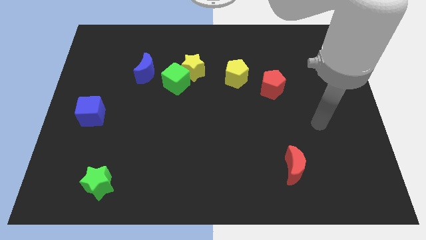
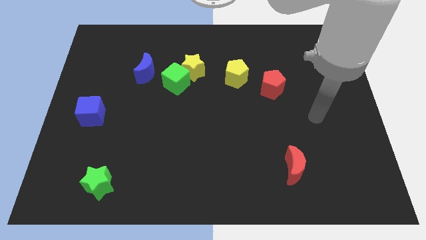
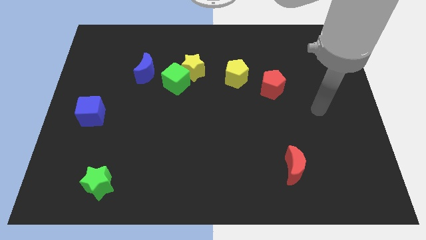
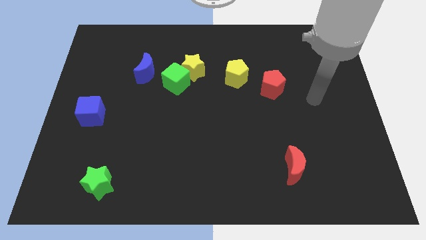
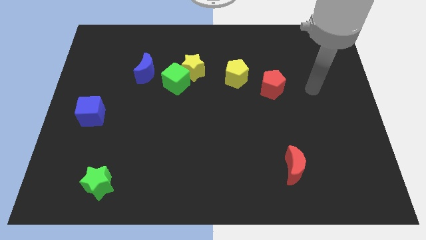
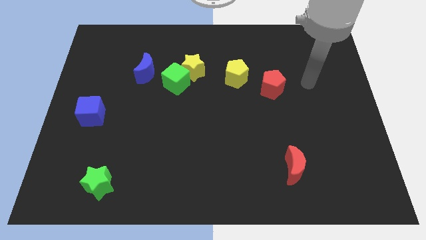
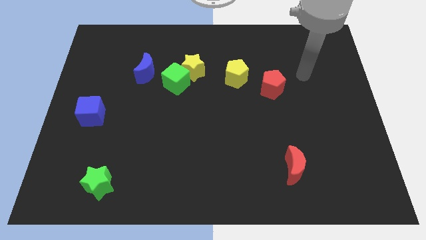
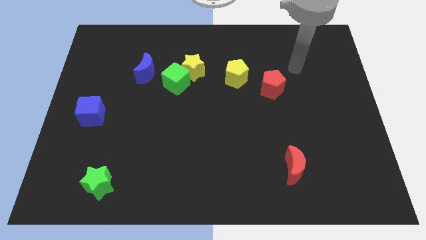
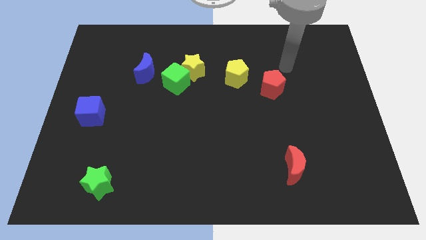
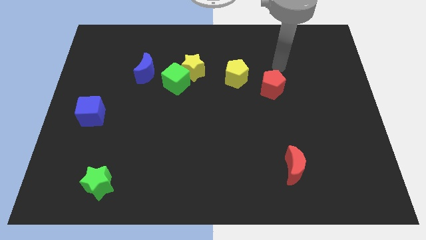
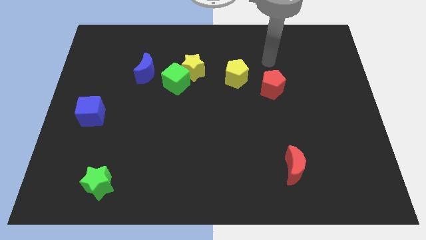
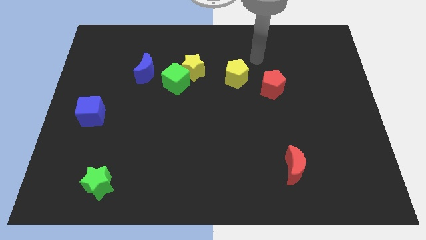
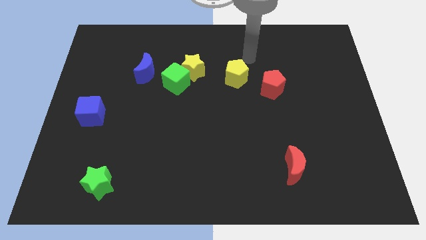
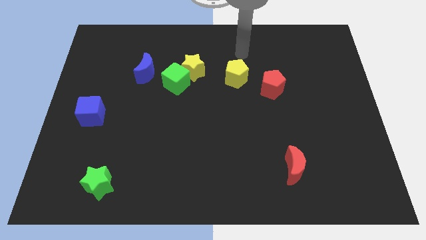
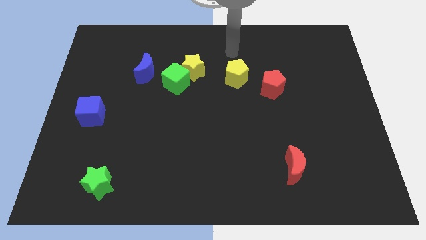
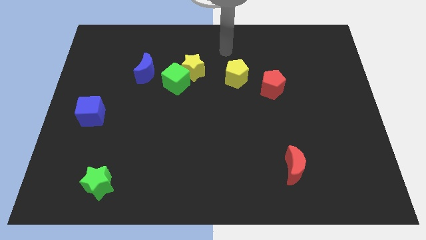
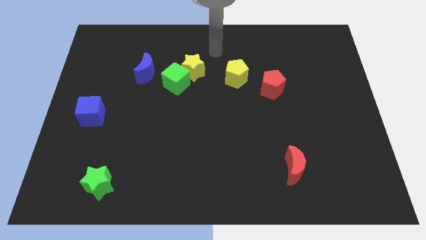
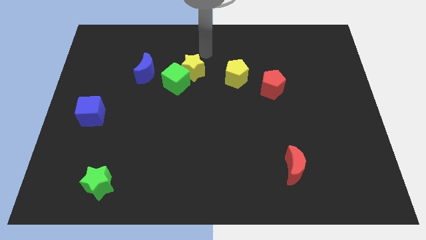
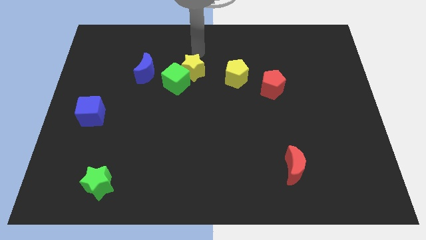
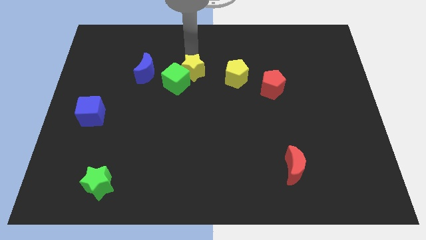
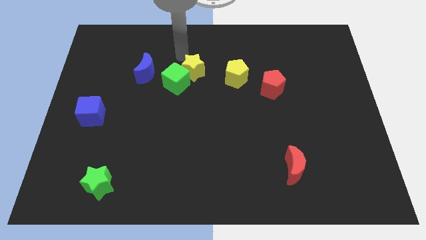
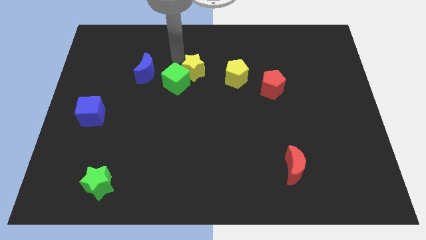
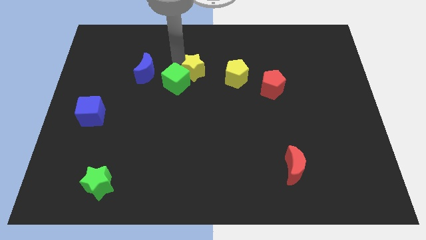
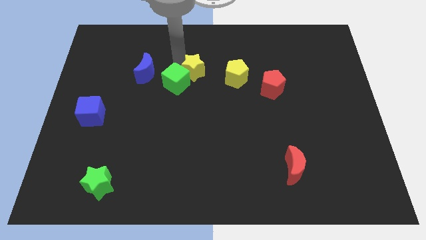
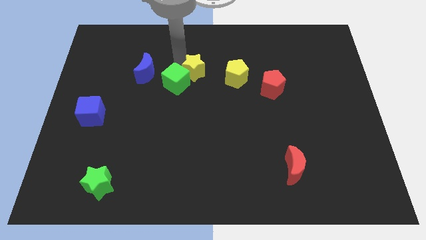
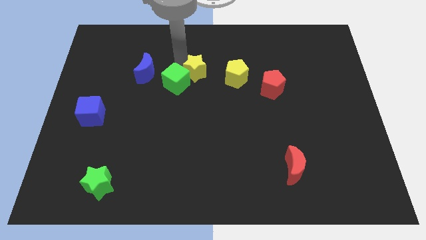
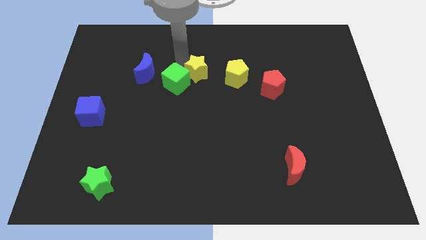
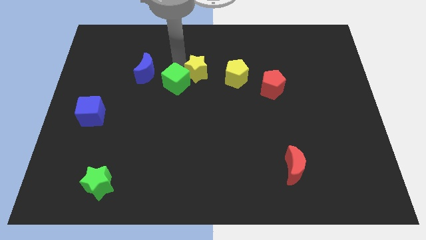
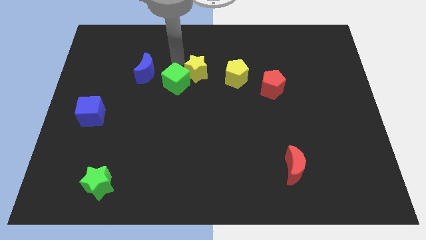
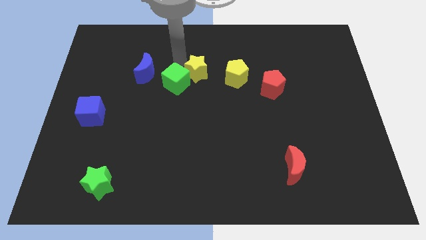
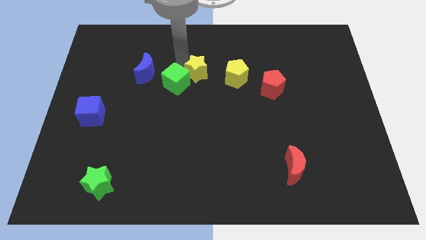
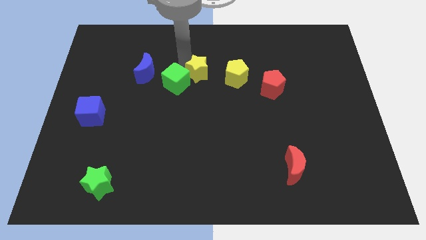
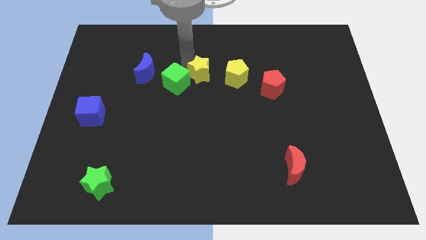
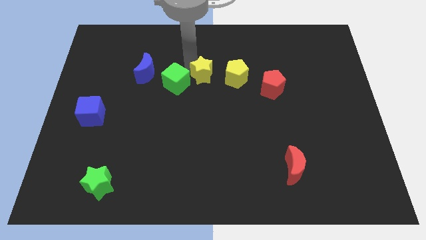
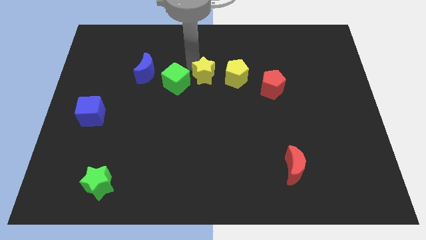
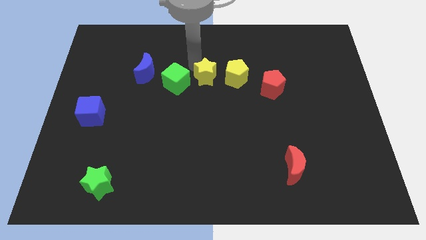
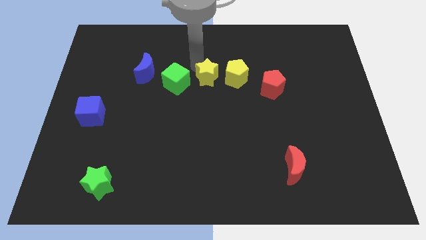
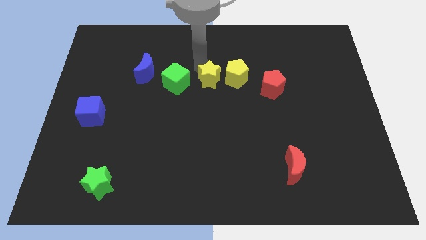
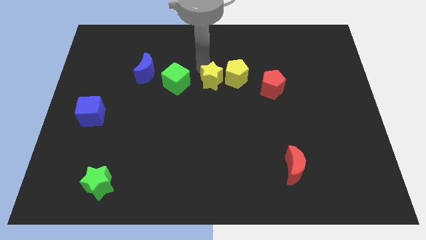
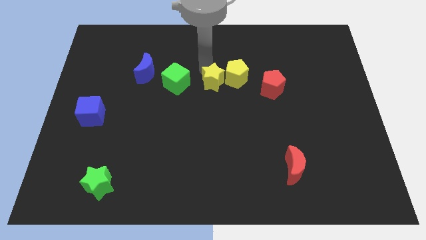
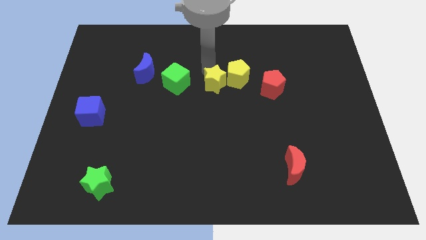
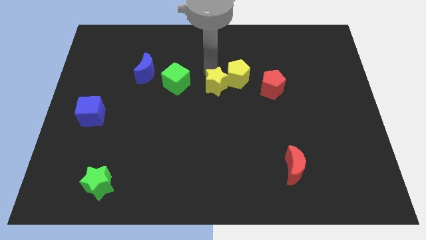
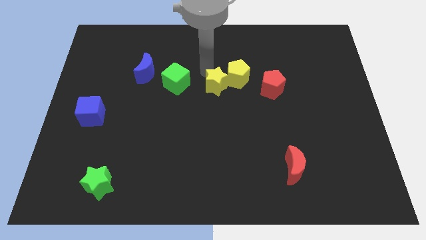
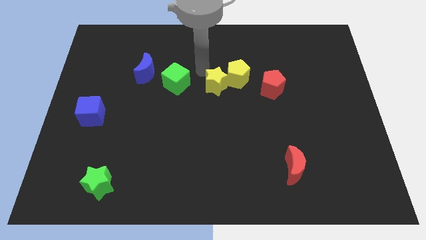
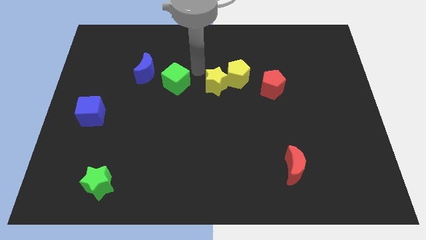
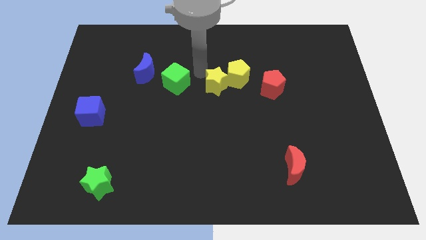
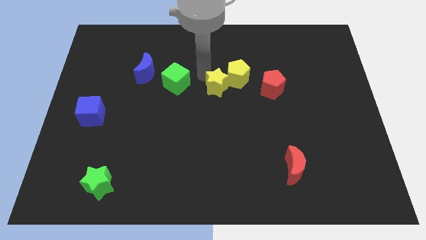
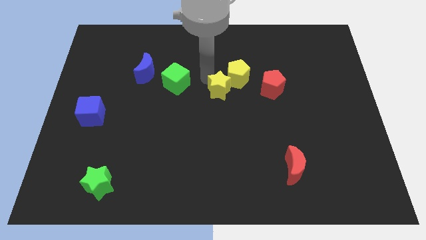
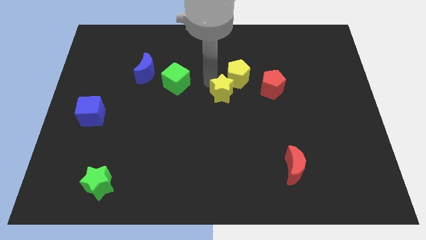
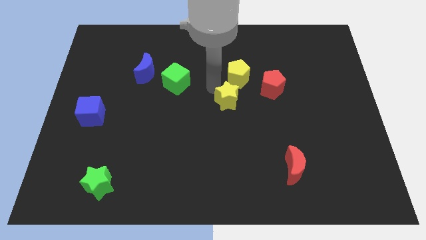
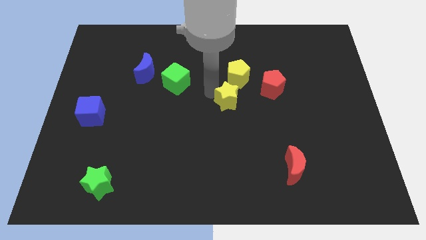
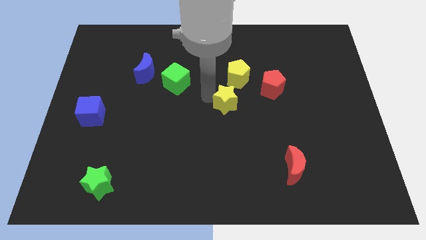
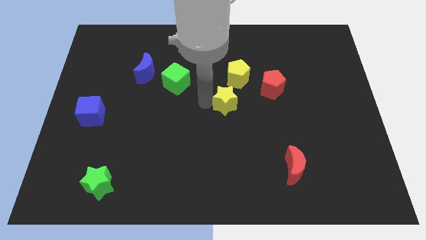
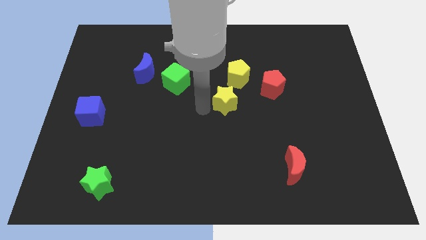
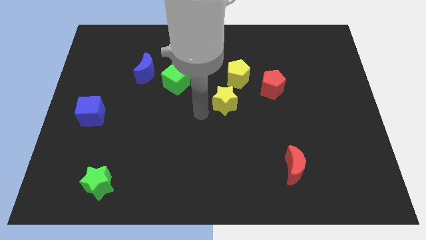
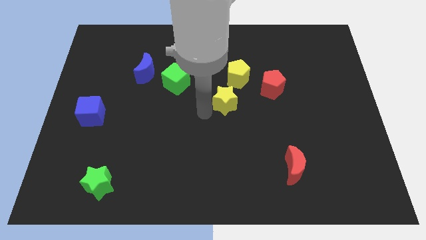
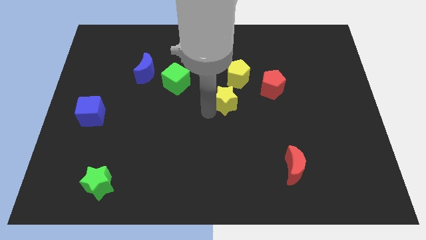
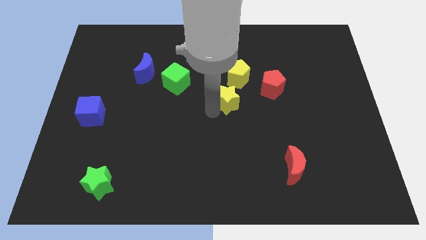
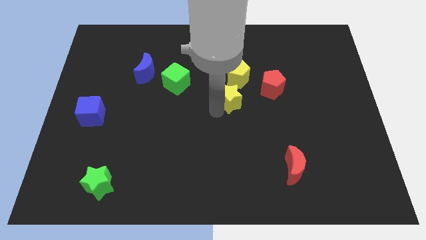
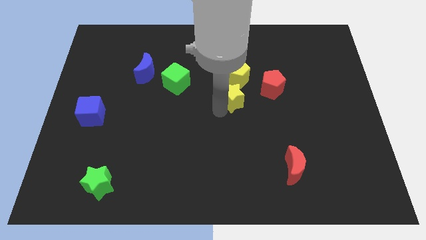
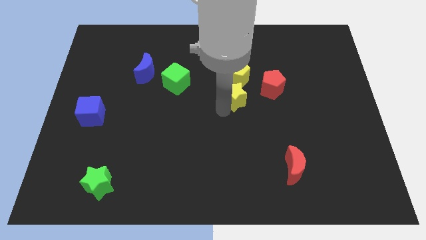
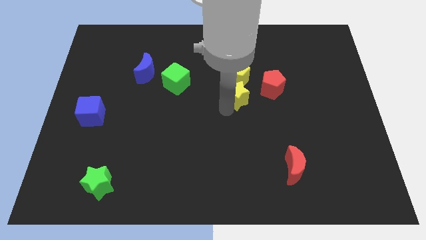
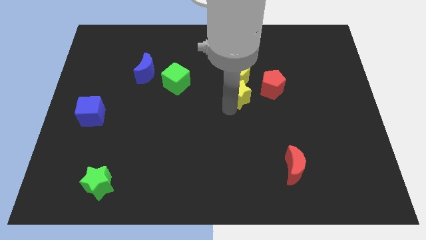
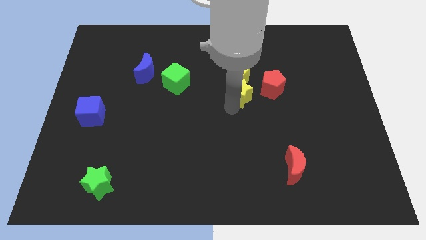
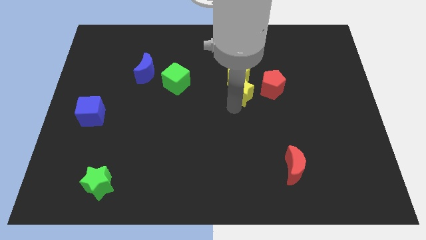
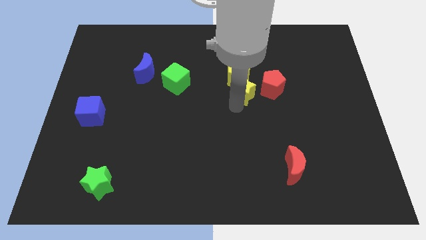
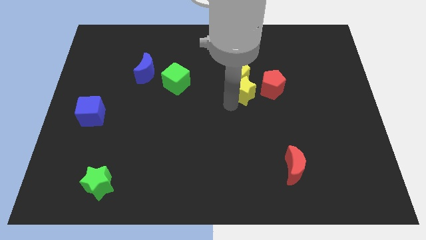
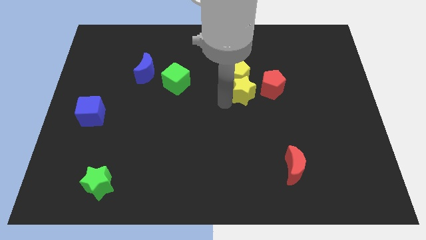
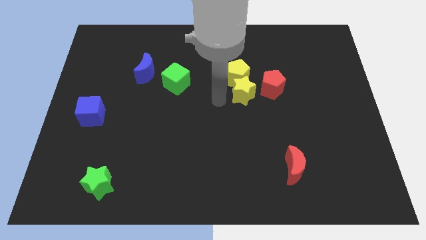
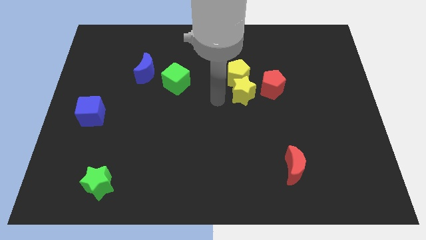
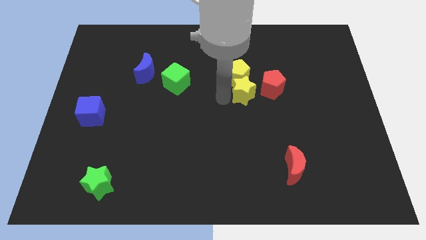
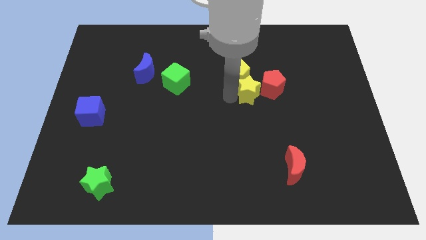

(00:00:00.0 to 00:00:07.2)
push the yellow star close to the red pentagon

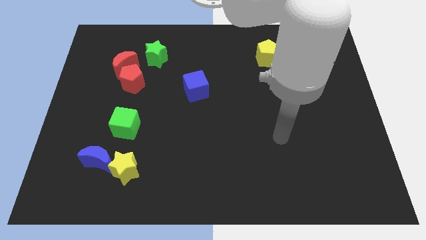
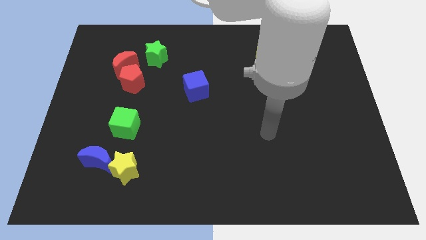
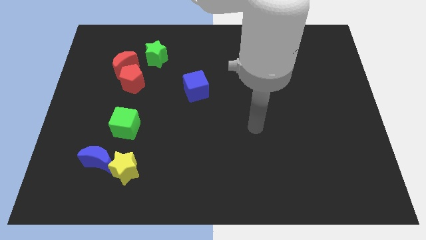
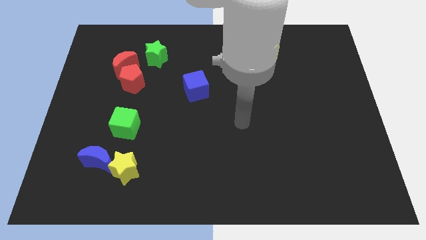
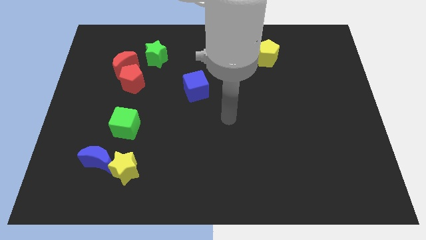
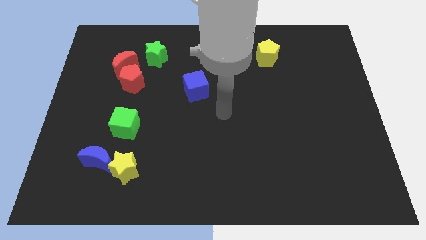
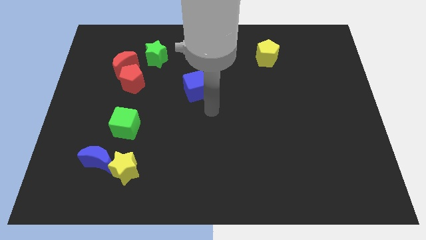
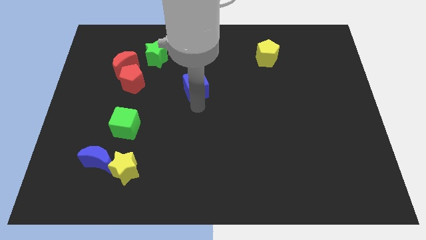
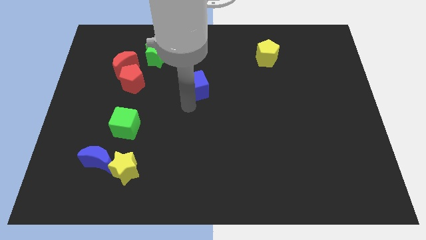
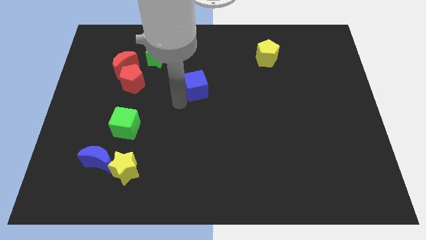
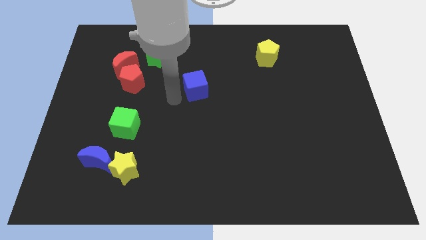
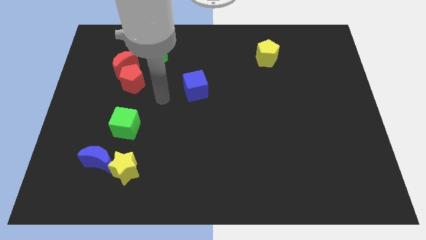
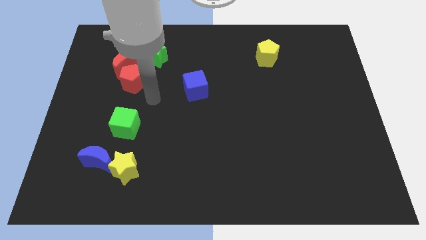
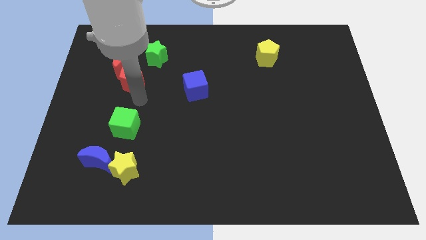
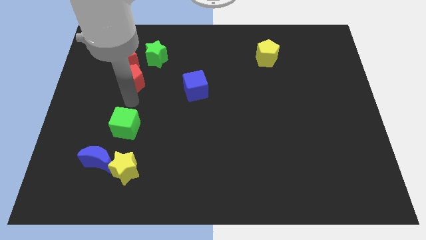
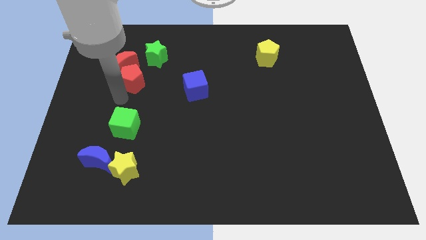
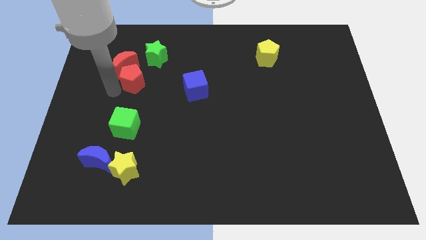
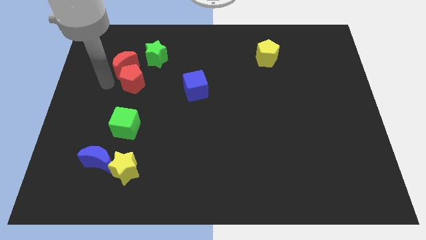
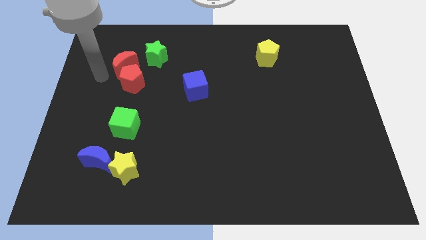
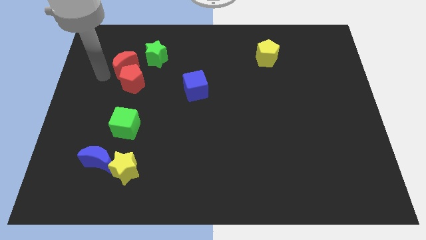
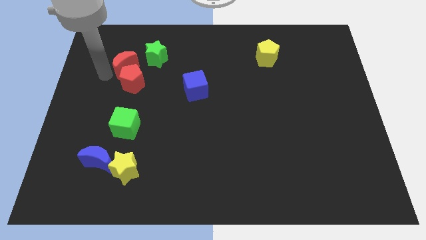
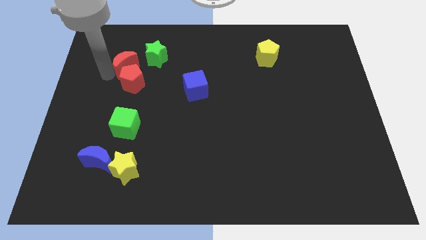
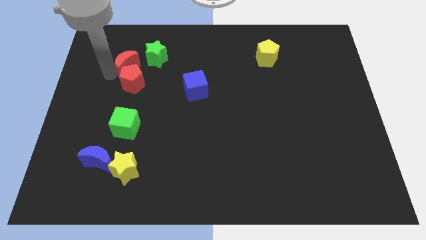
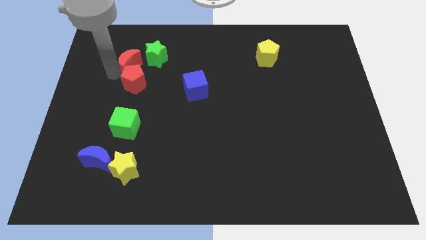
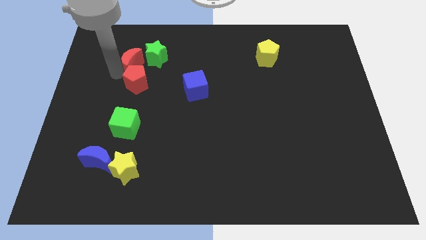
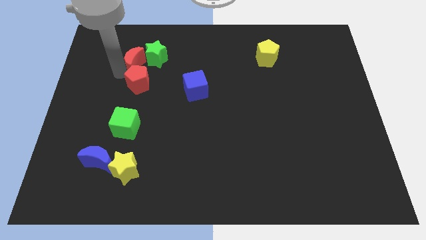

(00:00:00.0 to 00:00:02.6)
put the red moon close to the green star
